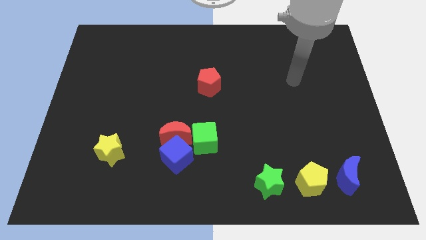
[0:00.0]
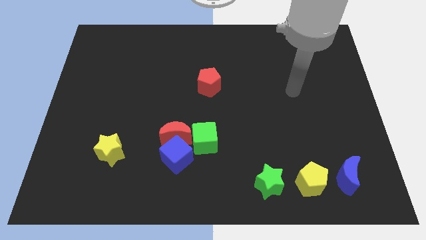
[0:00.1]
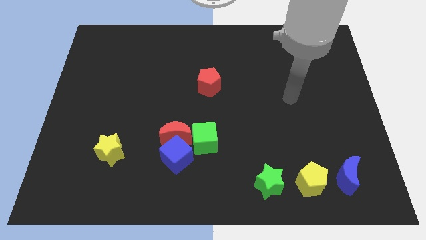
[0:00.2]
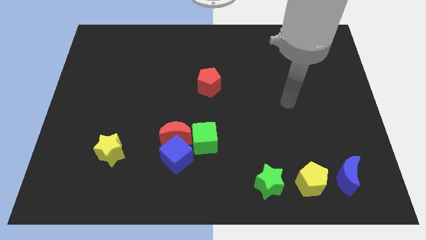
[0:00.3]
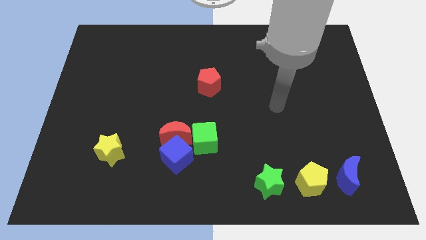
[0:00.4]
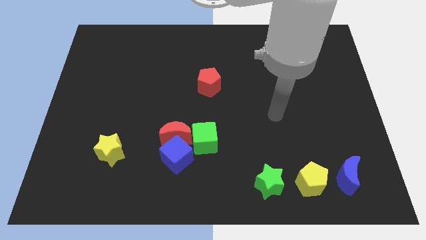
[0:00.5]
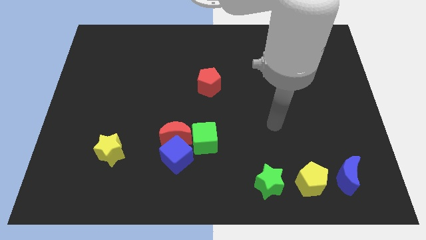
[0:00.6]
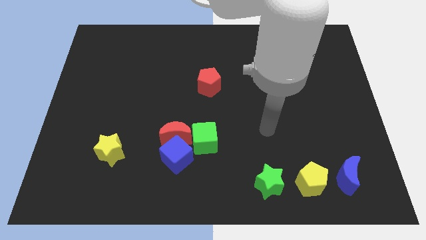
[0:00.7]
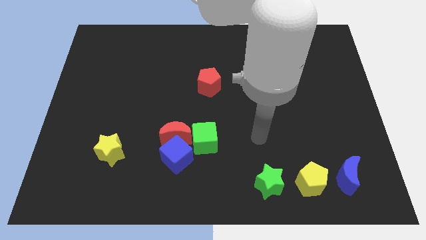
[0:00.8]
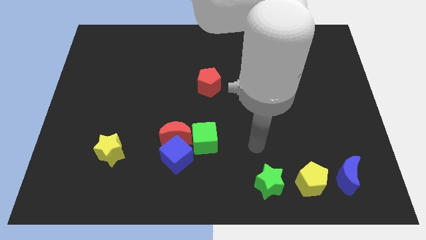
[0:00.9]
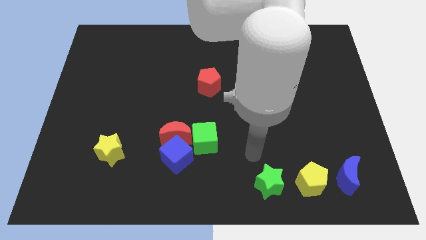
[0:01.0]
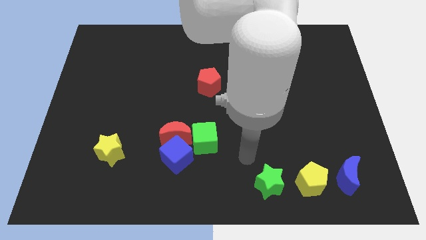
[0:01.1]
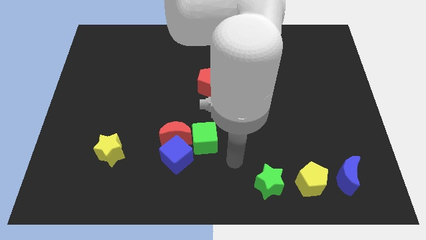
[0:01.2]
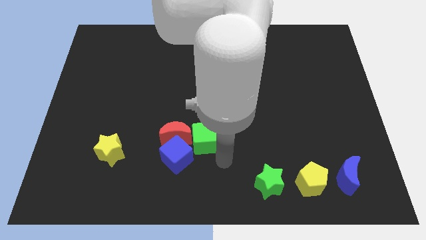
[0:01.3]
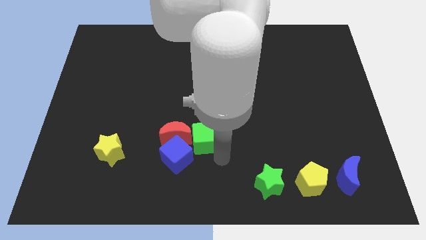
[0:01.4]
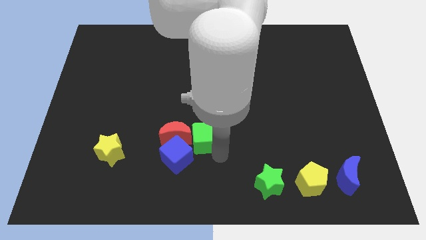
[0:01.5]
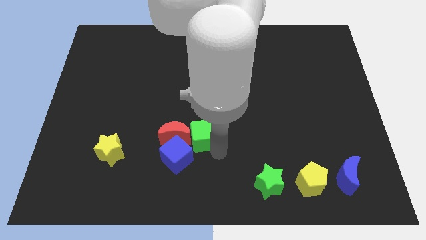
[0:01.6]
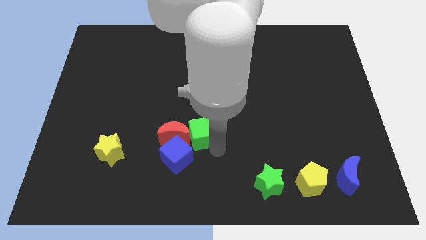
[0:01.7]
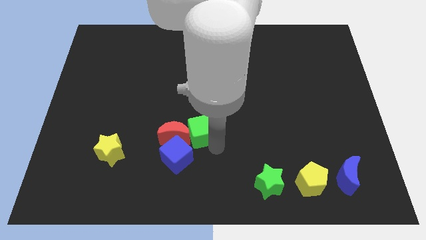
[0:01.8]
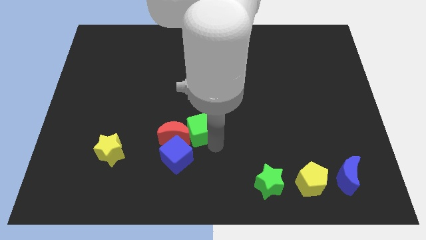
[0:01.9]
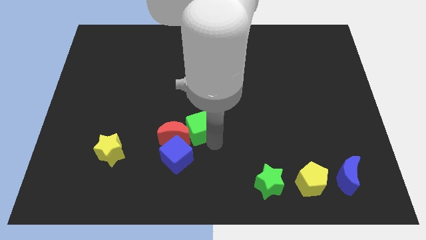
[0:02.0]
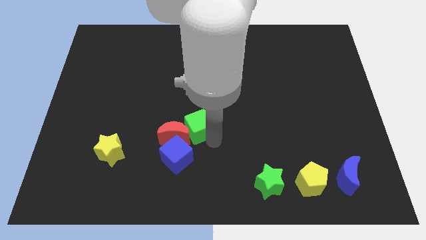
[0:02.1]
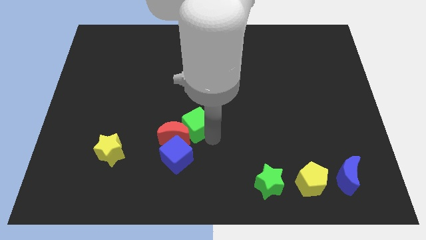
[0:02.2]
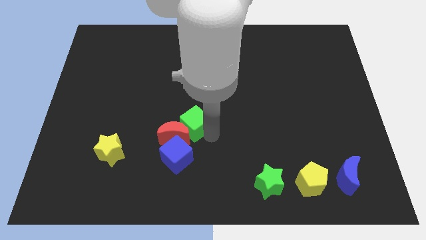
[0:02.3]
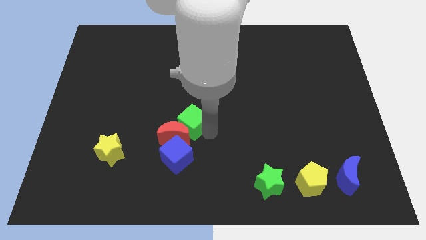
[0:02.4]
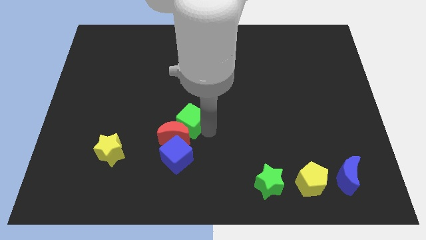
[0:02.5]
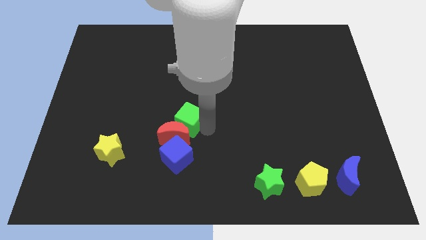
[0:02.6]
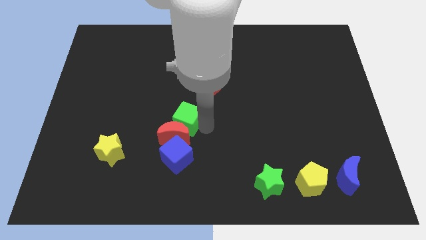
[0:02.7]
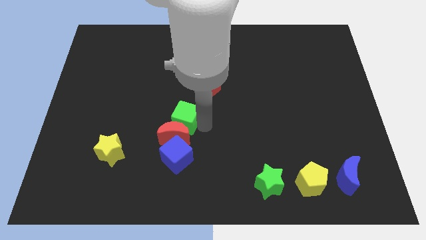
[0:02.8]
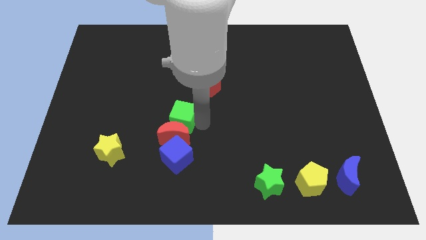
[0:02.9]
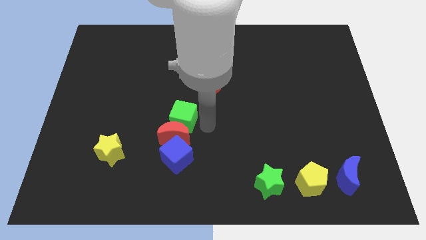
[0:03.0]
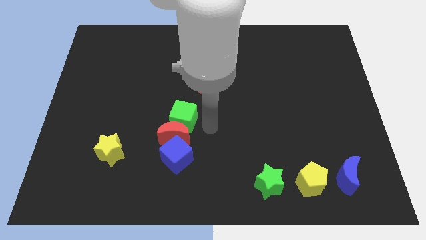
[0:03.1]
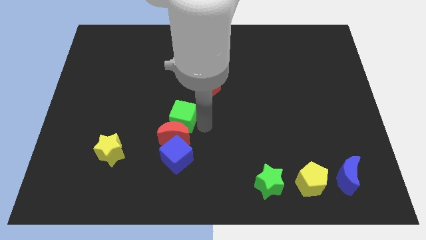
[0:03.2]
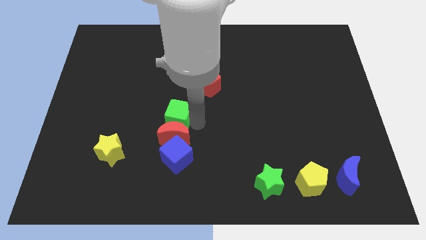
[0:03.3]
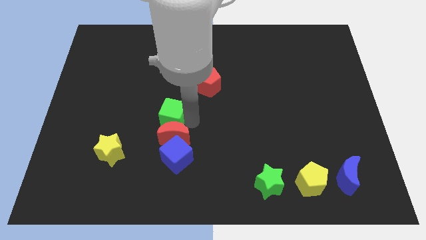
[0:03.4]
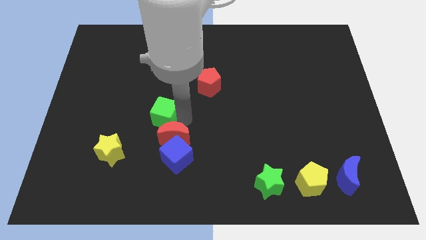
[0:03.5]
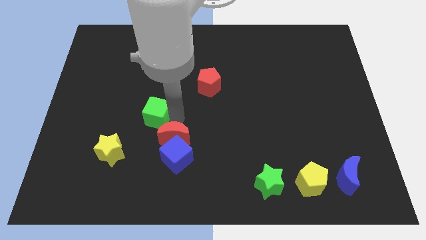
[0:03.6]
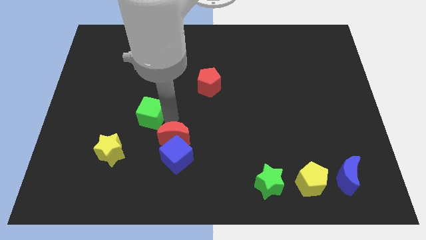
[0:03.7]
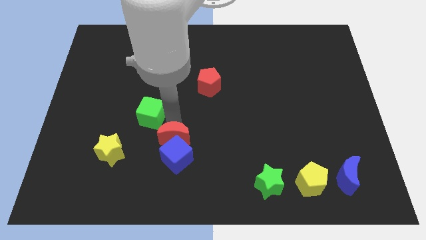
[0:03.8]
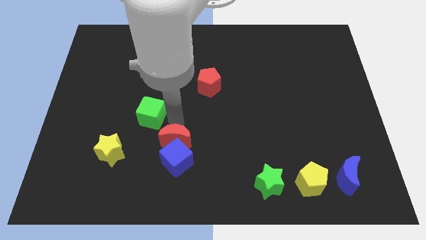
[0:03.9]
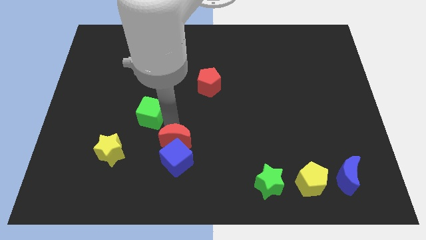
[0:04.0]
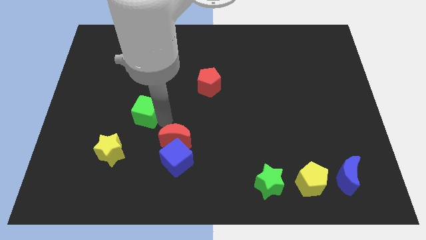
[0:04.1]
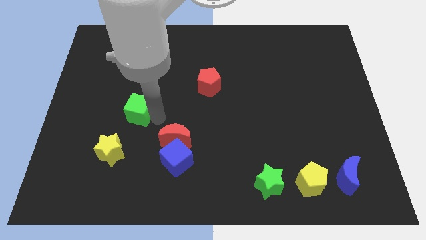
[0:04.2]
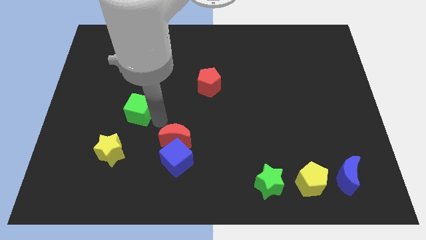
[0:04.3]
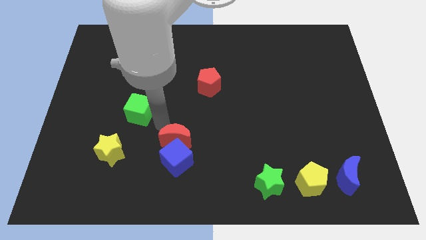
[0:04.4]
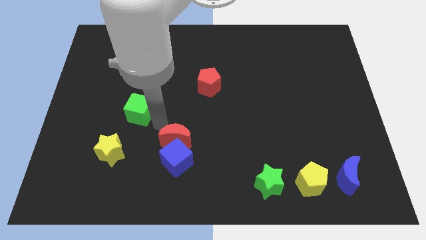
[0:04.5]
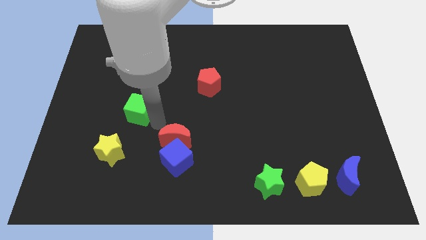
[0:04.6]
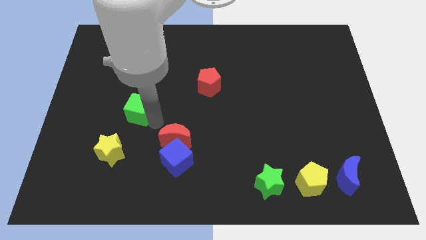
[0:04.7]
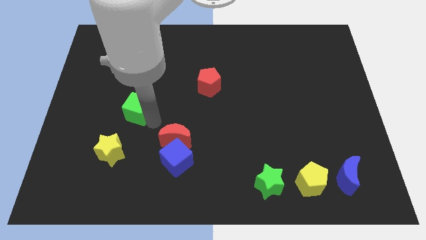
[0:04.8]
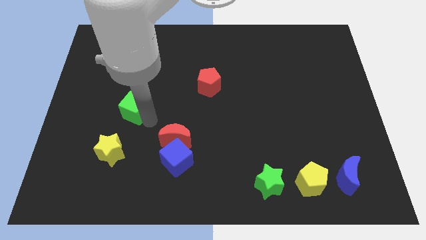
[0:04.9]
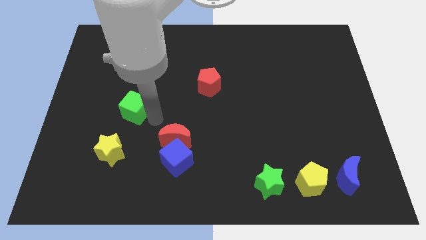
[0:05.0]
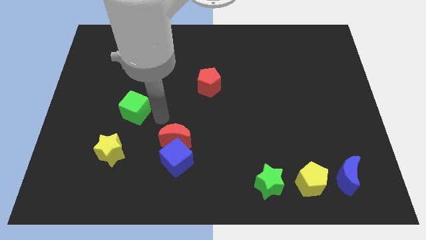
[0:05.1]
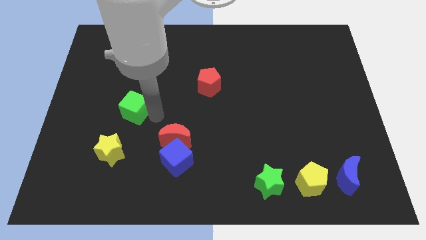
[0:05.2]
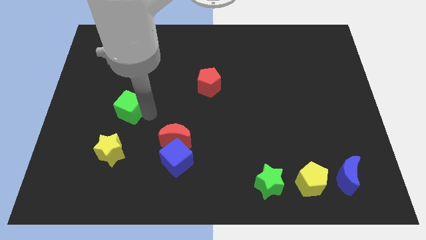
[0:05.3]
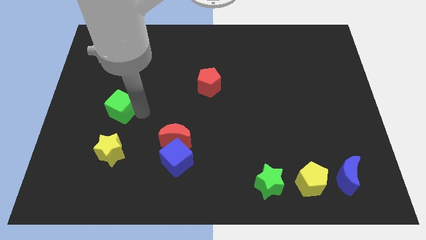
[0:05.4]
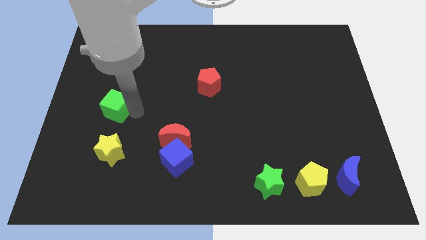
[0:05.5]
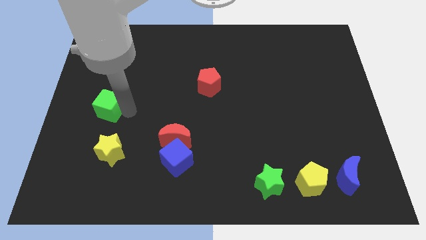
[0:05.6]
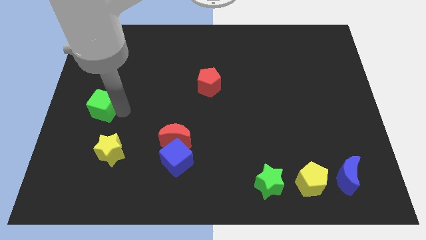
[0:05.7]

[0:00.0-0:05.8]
put the green cube to the center left

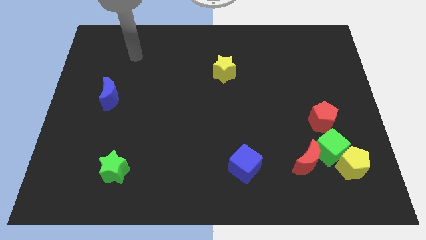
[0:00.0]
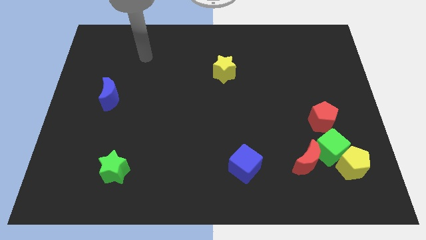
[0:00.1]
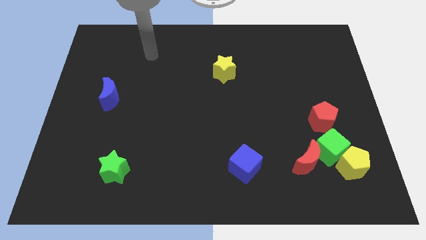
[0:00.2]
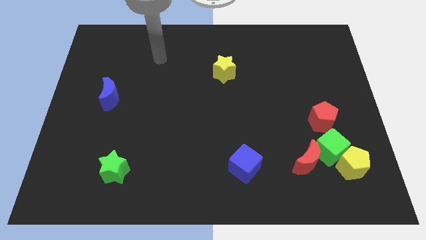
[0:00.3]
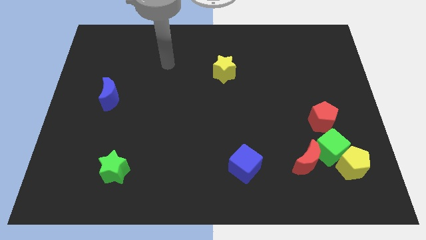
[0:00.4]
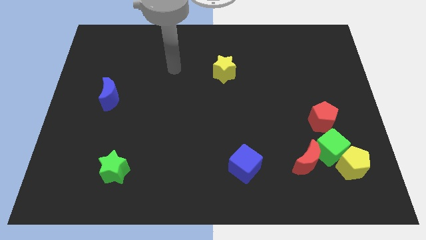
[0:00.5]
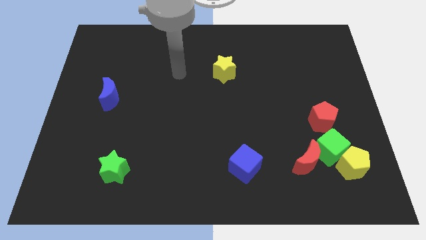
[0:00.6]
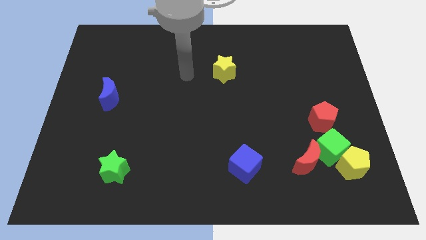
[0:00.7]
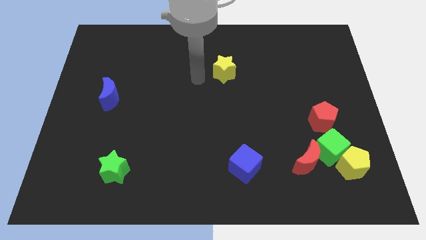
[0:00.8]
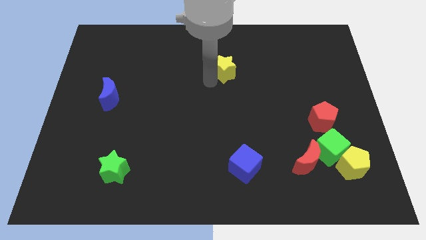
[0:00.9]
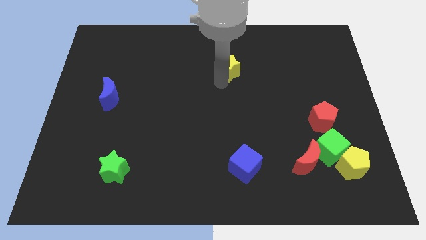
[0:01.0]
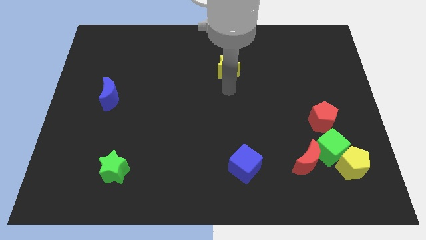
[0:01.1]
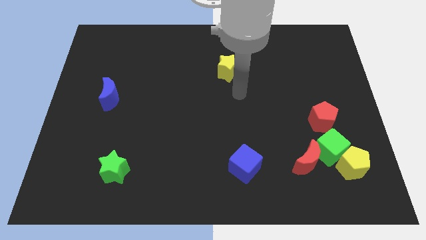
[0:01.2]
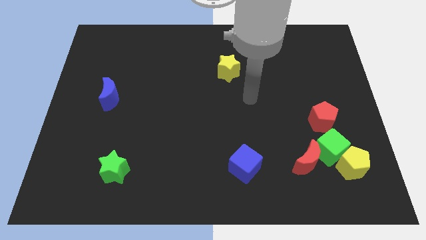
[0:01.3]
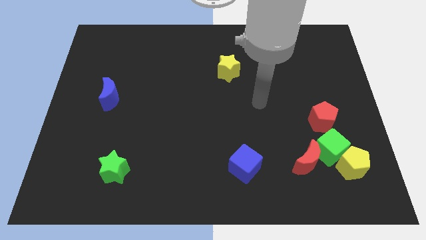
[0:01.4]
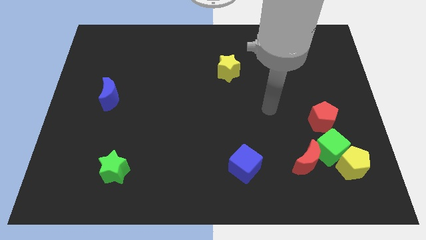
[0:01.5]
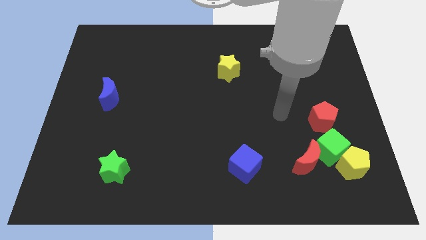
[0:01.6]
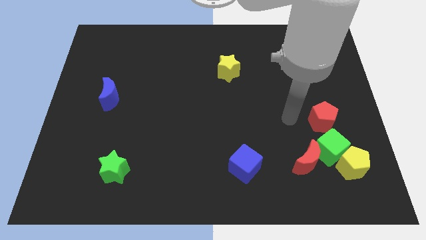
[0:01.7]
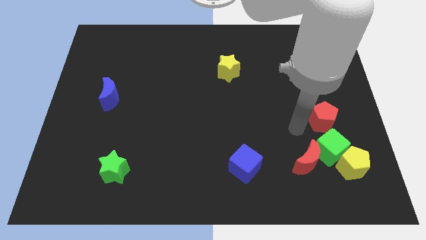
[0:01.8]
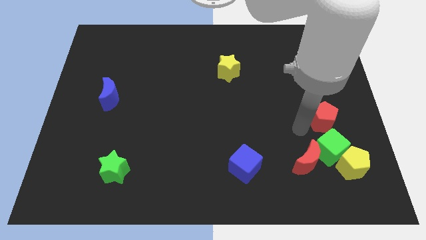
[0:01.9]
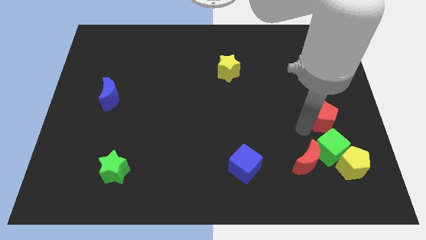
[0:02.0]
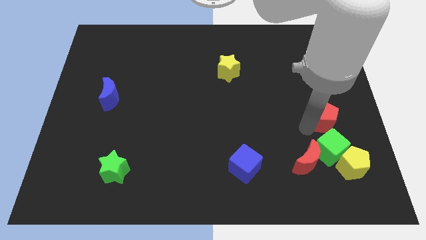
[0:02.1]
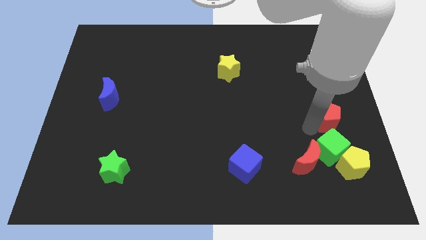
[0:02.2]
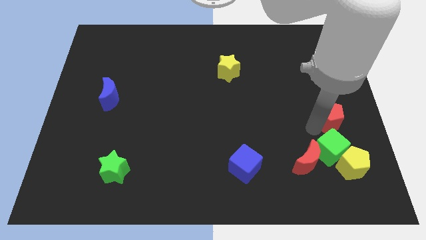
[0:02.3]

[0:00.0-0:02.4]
move the red pentagon to the right side of the board
